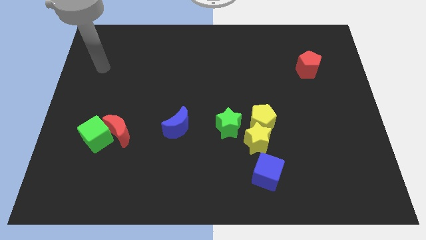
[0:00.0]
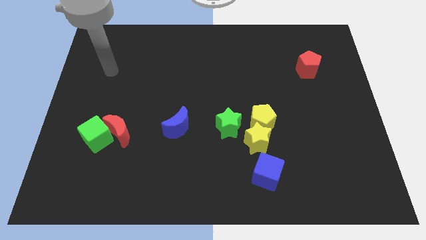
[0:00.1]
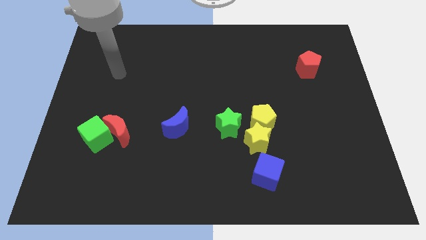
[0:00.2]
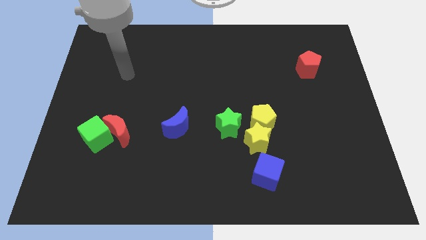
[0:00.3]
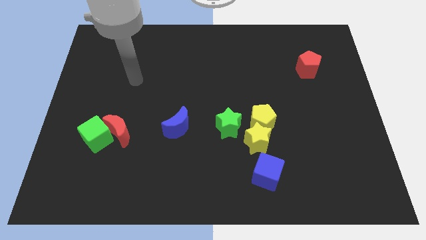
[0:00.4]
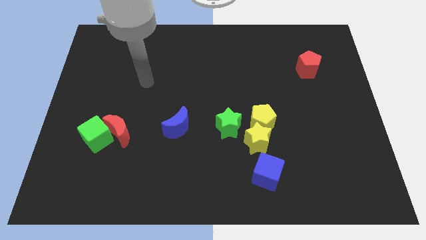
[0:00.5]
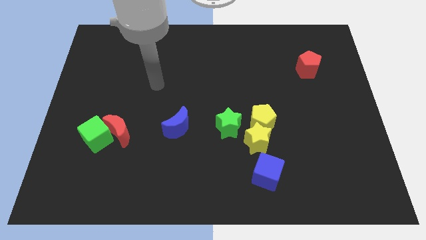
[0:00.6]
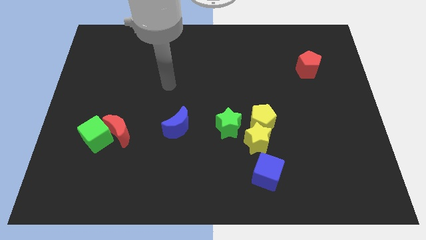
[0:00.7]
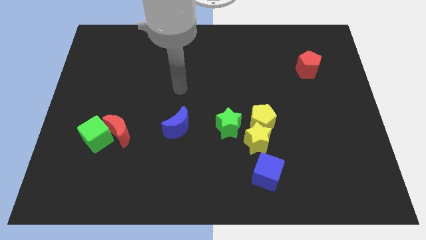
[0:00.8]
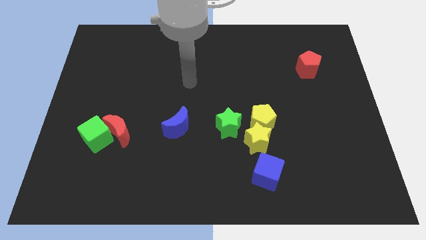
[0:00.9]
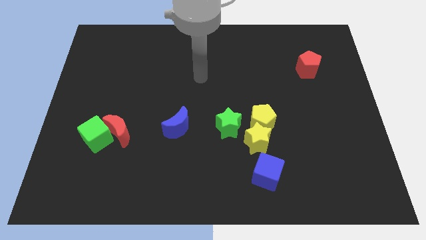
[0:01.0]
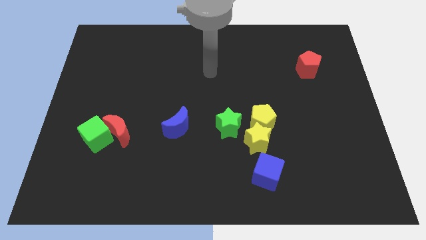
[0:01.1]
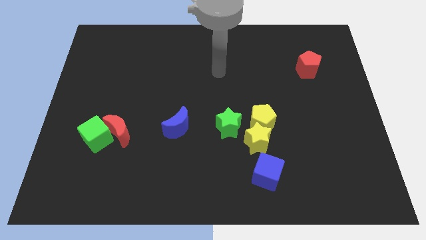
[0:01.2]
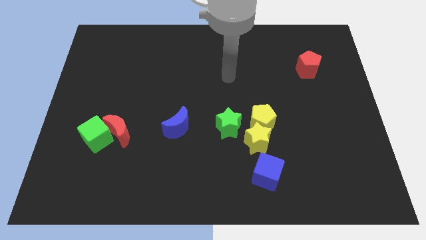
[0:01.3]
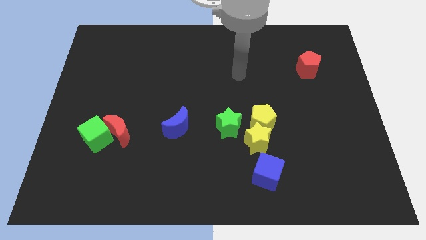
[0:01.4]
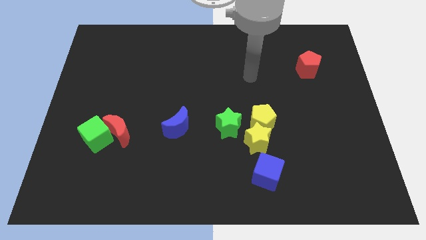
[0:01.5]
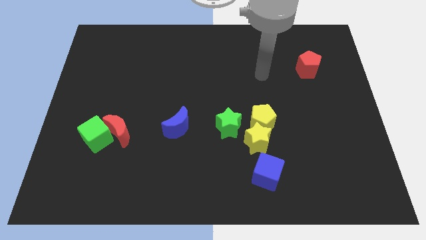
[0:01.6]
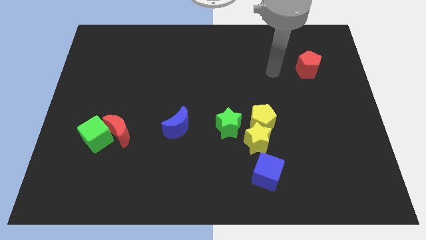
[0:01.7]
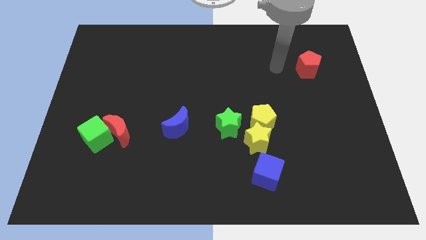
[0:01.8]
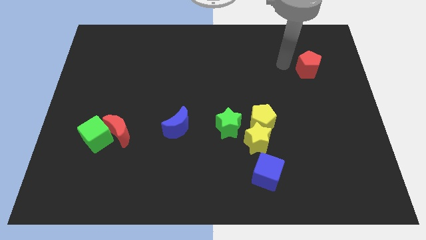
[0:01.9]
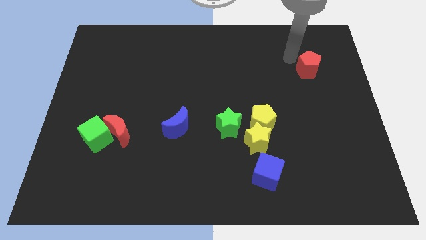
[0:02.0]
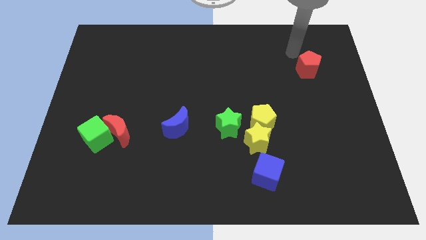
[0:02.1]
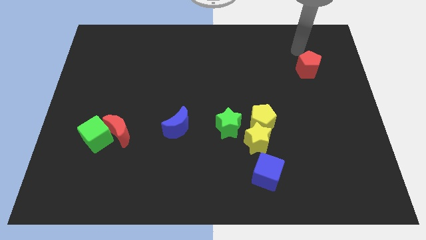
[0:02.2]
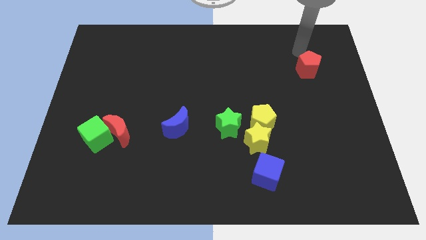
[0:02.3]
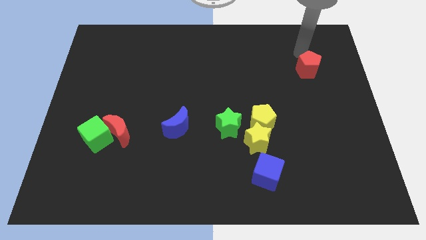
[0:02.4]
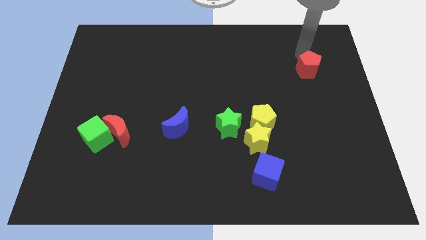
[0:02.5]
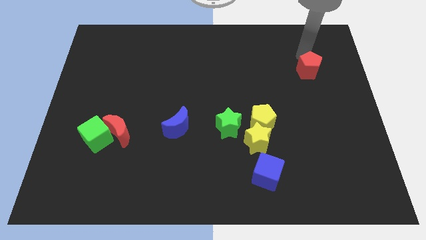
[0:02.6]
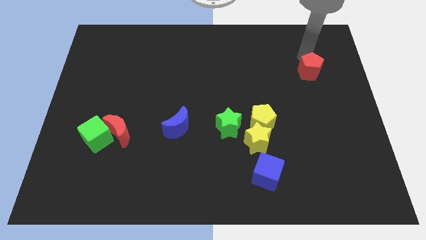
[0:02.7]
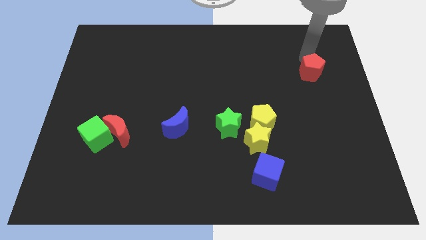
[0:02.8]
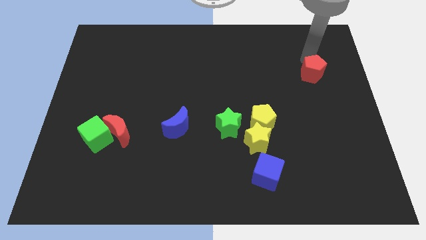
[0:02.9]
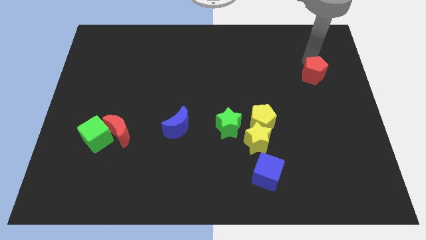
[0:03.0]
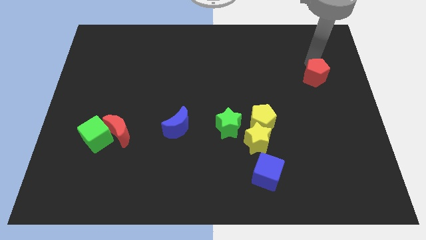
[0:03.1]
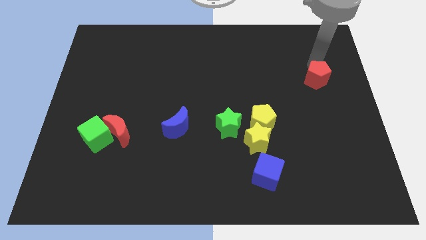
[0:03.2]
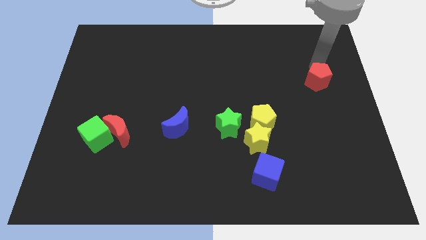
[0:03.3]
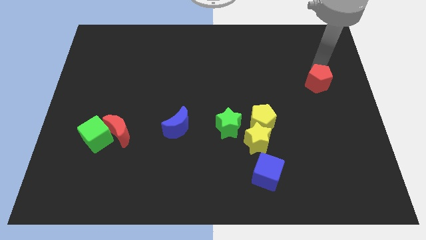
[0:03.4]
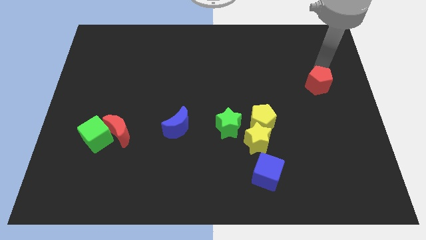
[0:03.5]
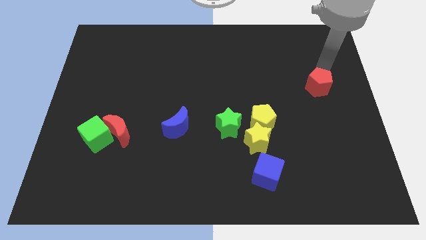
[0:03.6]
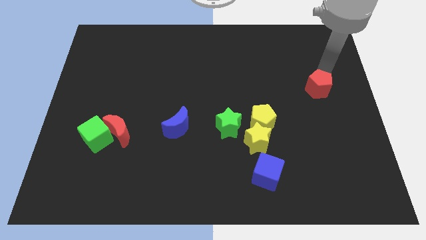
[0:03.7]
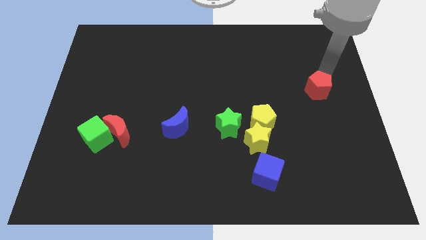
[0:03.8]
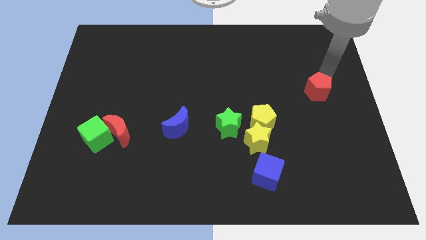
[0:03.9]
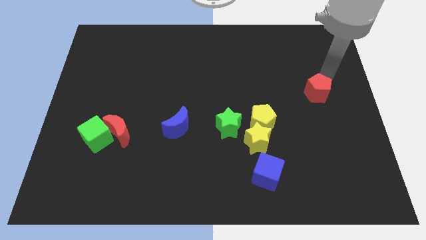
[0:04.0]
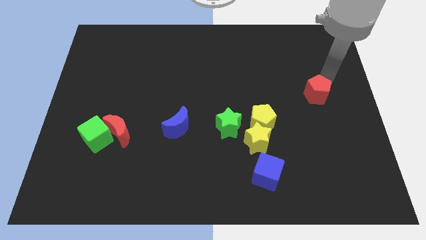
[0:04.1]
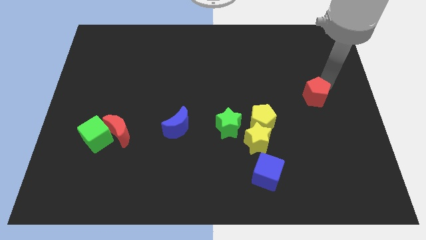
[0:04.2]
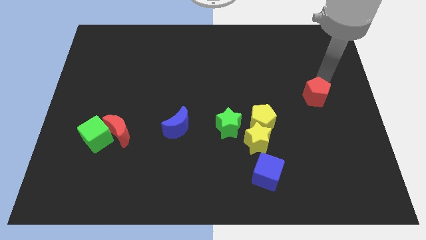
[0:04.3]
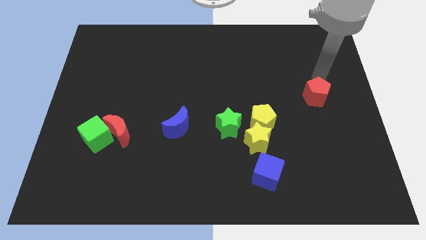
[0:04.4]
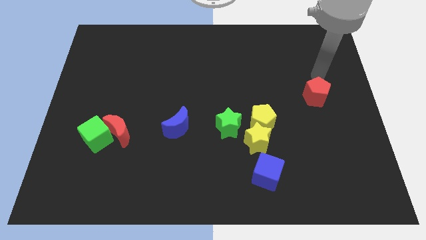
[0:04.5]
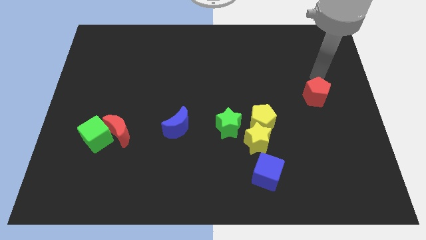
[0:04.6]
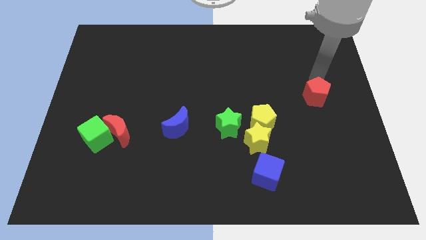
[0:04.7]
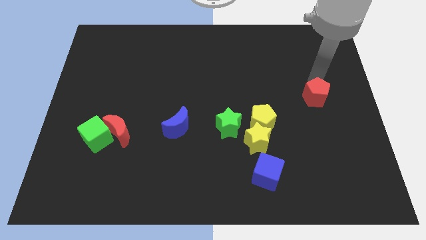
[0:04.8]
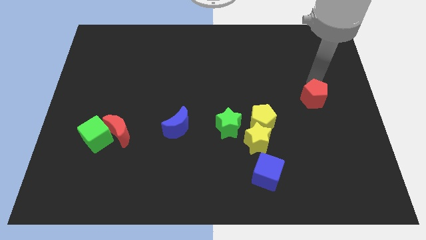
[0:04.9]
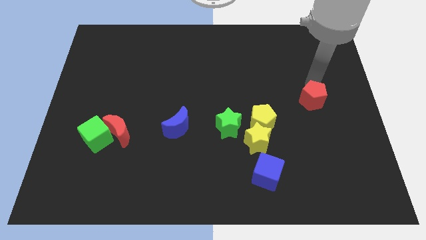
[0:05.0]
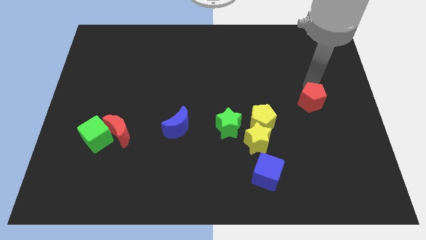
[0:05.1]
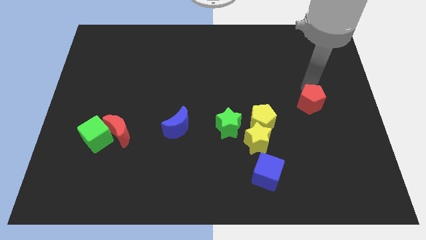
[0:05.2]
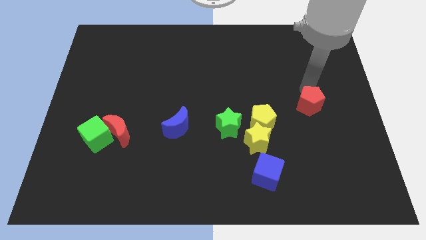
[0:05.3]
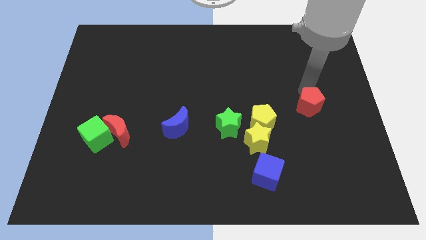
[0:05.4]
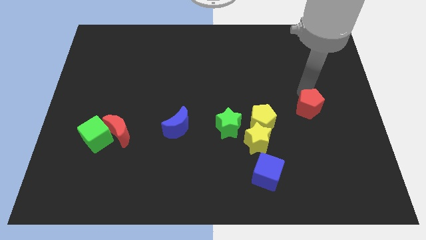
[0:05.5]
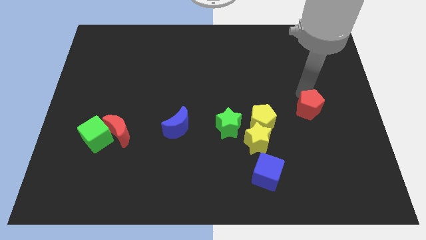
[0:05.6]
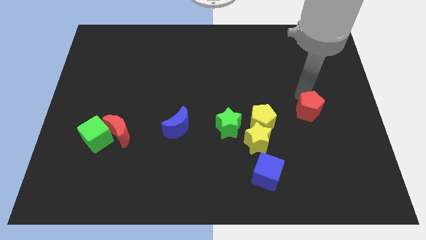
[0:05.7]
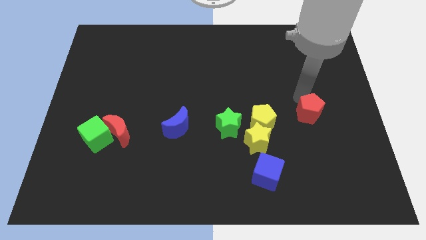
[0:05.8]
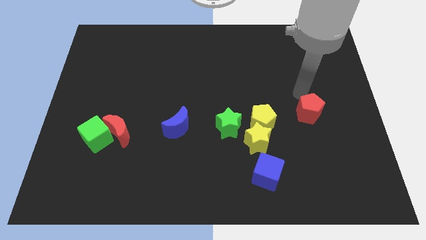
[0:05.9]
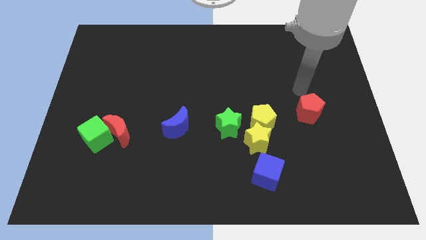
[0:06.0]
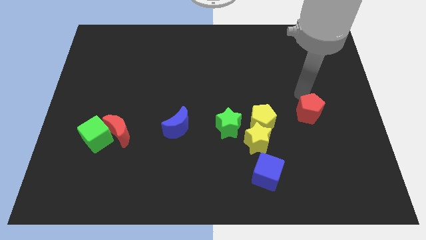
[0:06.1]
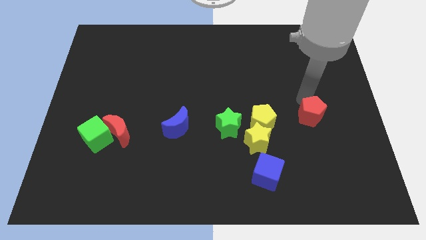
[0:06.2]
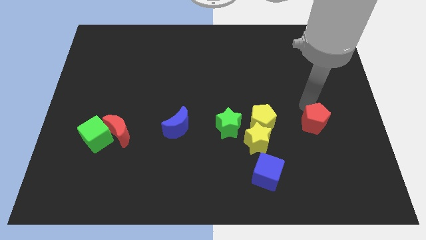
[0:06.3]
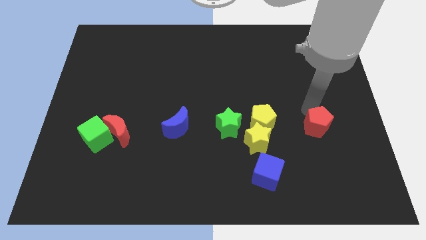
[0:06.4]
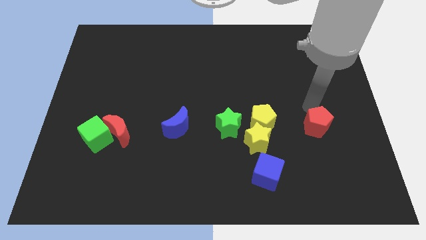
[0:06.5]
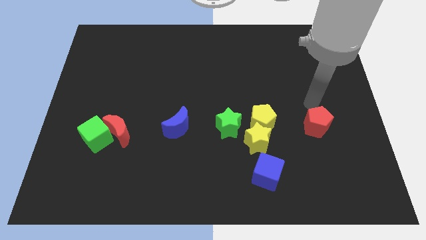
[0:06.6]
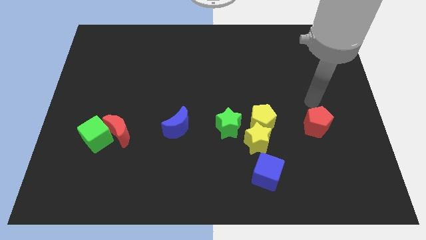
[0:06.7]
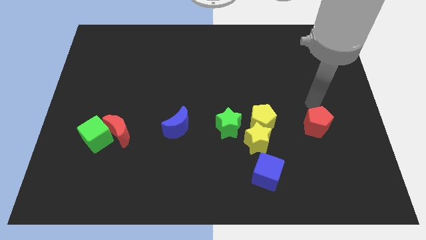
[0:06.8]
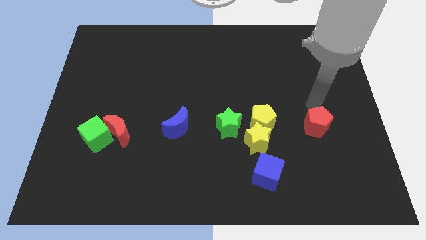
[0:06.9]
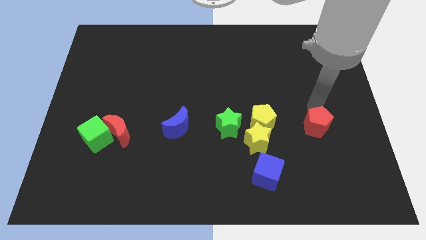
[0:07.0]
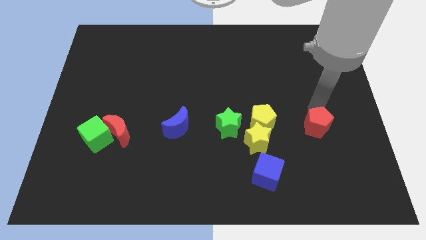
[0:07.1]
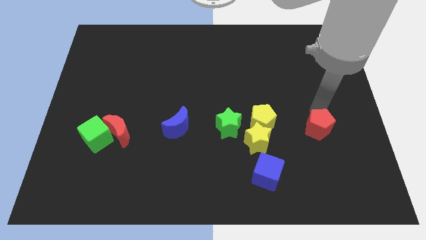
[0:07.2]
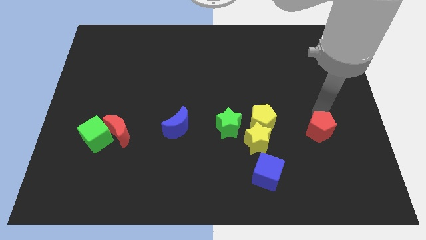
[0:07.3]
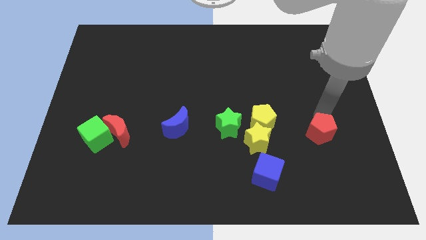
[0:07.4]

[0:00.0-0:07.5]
move the red pentagon downwards

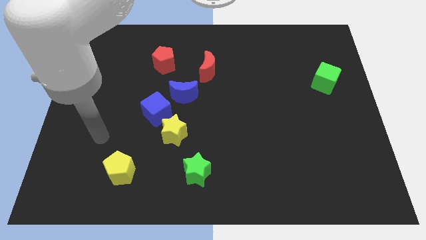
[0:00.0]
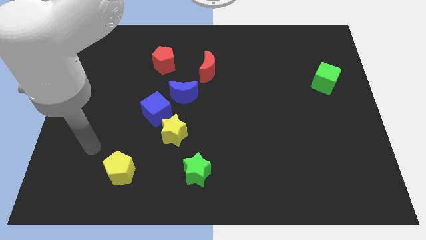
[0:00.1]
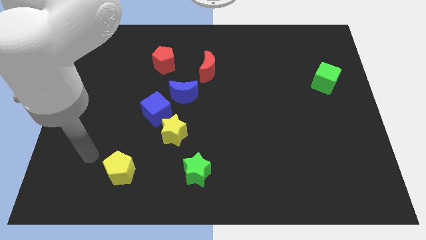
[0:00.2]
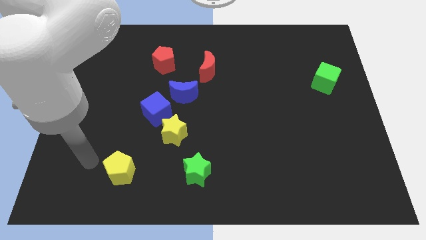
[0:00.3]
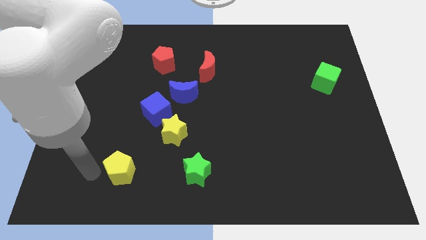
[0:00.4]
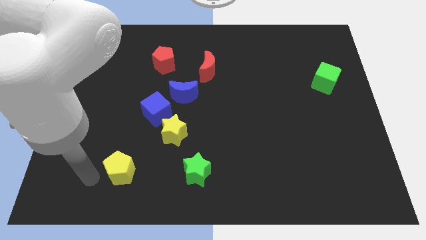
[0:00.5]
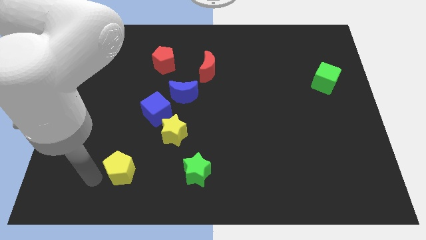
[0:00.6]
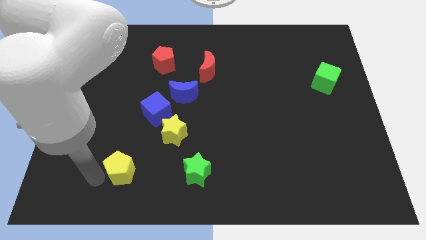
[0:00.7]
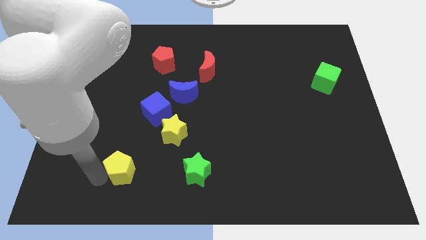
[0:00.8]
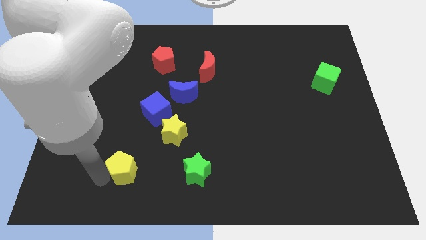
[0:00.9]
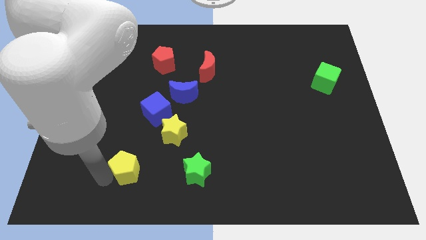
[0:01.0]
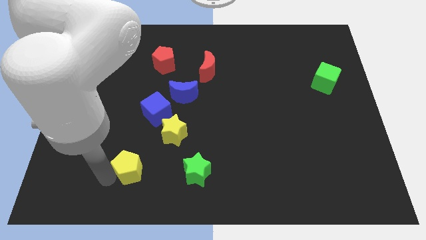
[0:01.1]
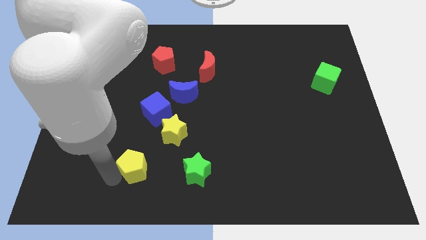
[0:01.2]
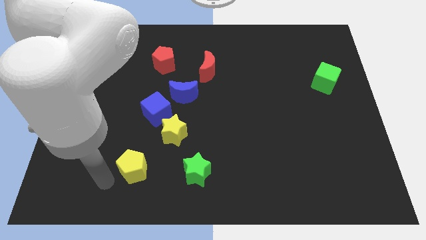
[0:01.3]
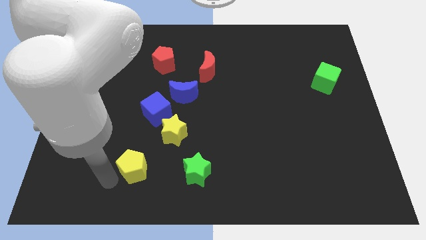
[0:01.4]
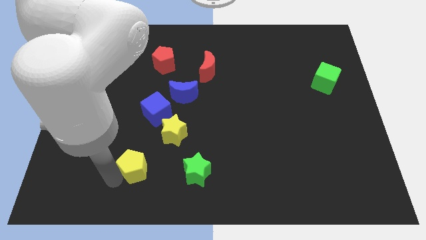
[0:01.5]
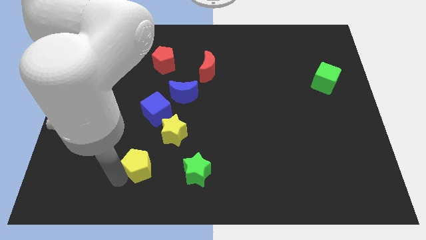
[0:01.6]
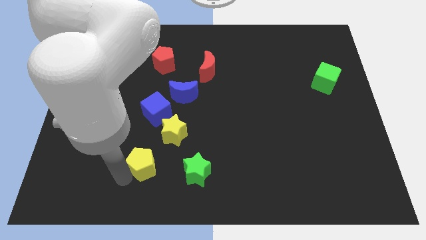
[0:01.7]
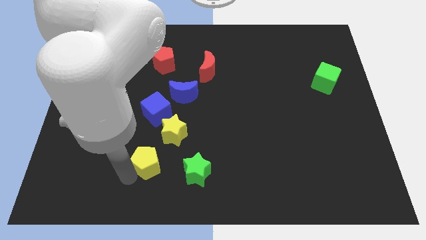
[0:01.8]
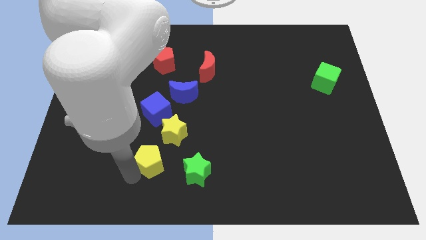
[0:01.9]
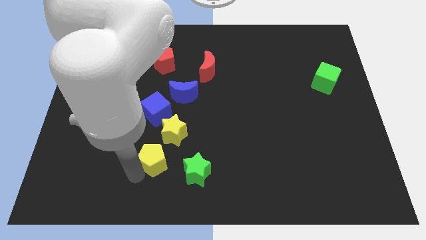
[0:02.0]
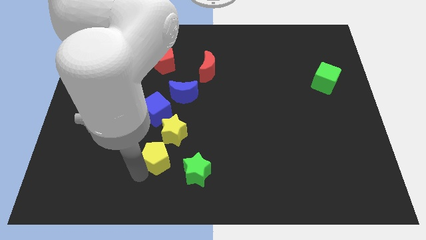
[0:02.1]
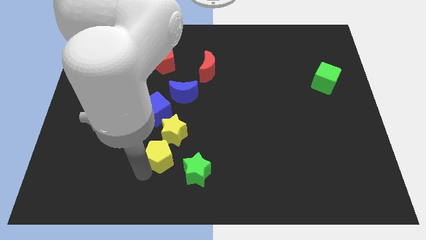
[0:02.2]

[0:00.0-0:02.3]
move the yellow pentagon upwards and to the right diagonally a little
